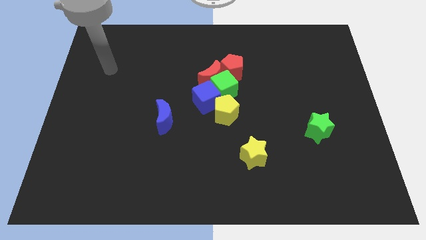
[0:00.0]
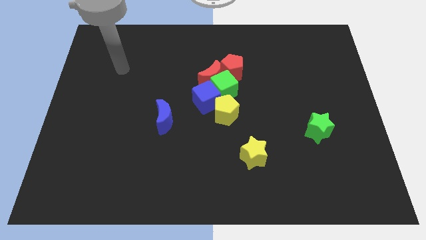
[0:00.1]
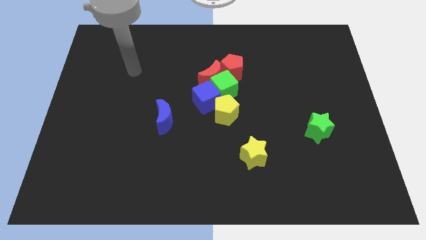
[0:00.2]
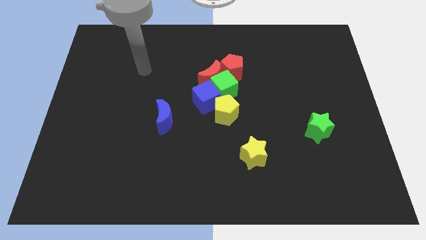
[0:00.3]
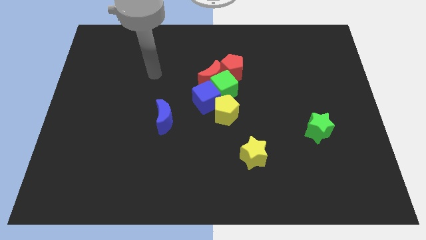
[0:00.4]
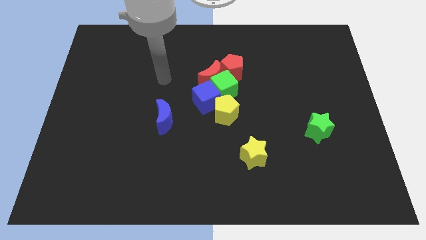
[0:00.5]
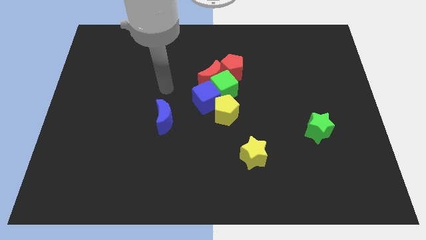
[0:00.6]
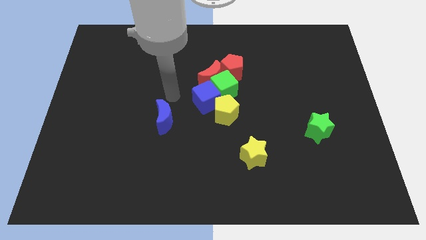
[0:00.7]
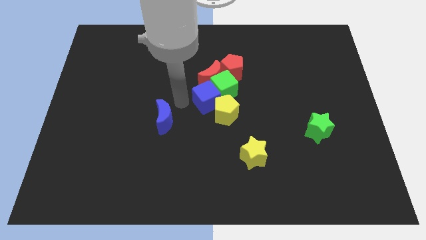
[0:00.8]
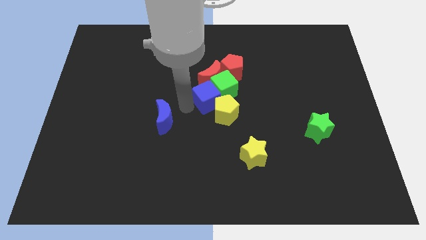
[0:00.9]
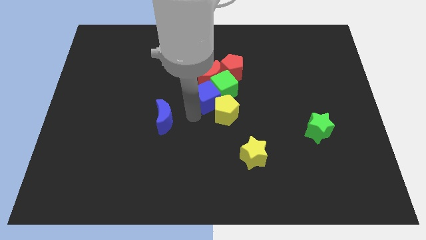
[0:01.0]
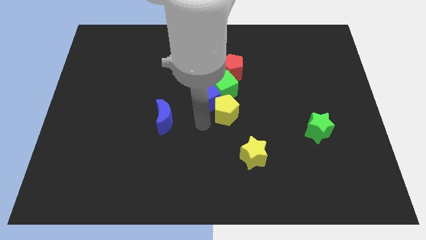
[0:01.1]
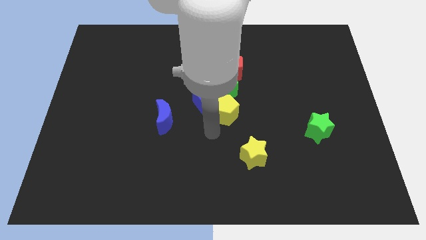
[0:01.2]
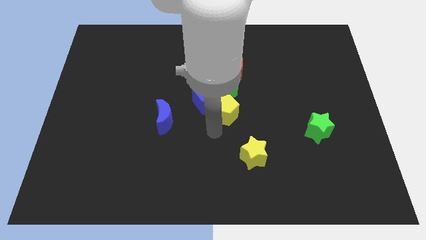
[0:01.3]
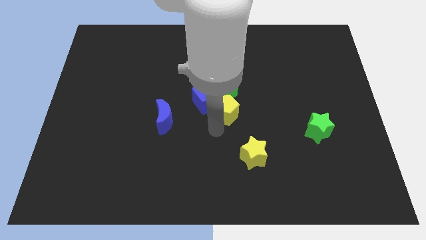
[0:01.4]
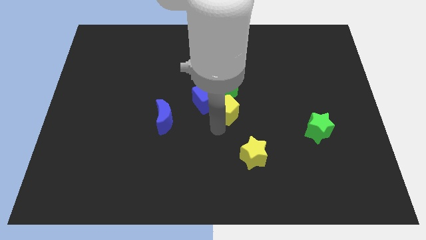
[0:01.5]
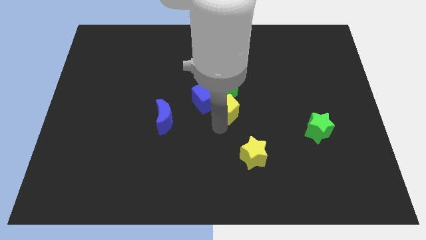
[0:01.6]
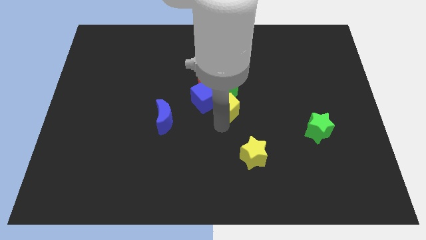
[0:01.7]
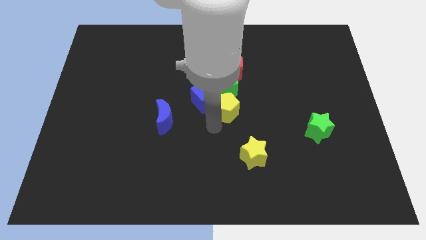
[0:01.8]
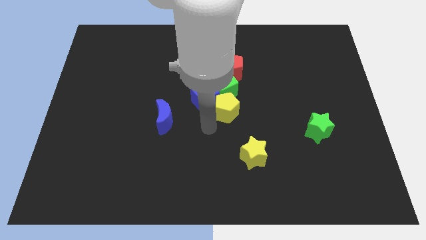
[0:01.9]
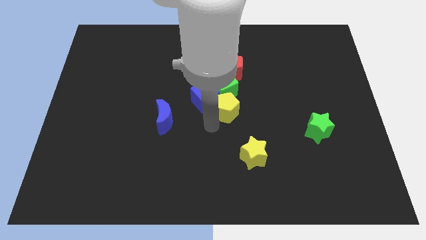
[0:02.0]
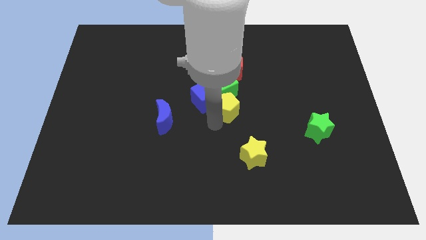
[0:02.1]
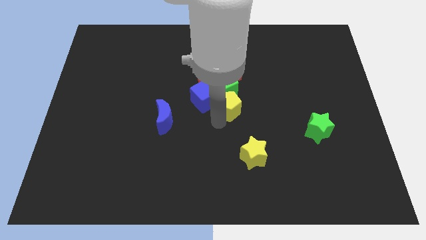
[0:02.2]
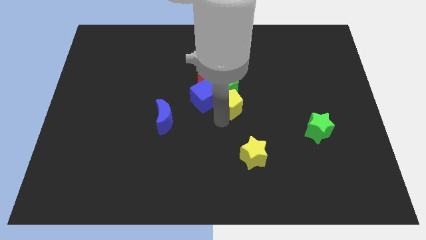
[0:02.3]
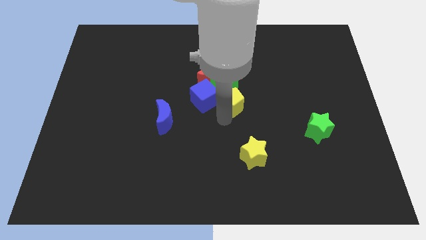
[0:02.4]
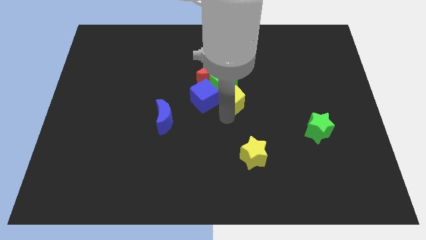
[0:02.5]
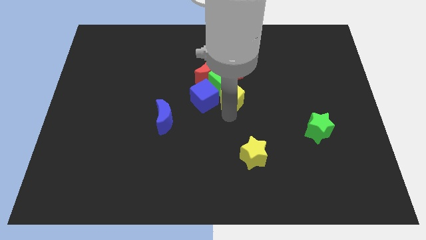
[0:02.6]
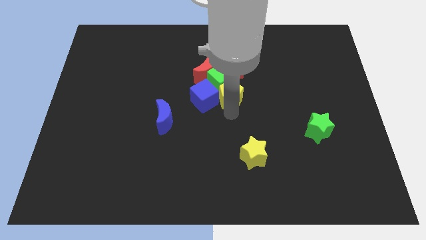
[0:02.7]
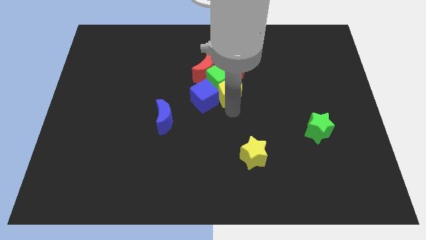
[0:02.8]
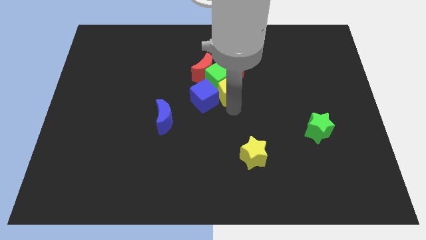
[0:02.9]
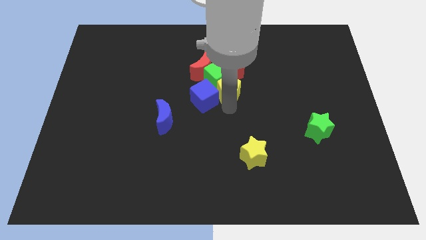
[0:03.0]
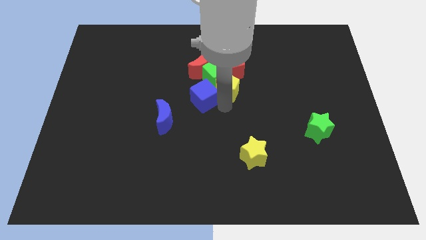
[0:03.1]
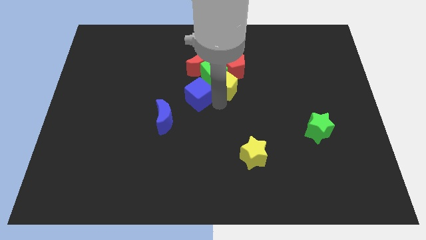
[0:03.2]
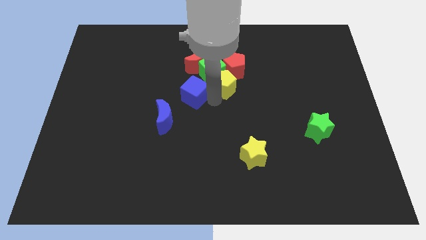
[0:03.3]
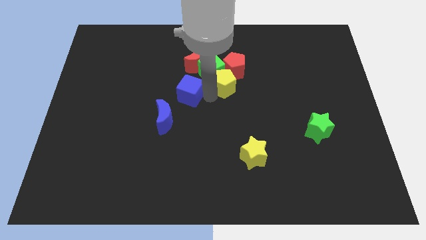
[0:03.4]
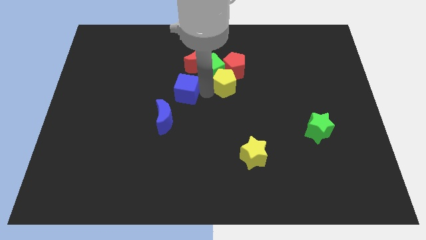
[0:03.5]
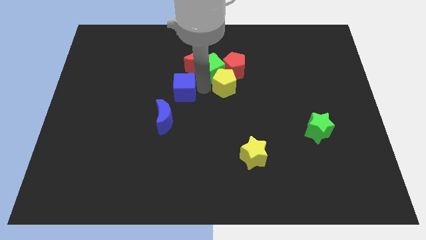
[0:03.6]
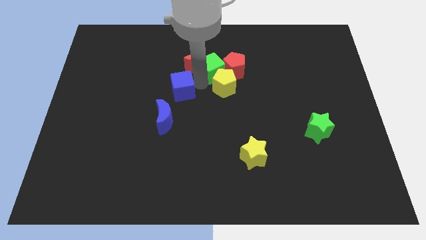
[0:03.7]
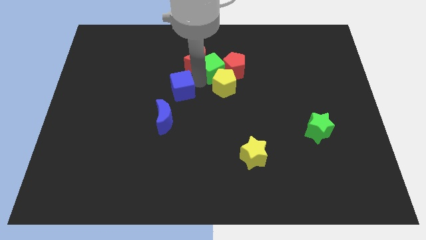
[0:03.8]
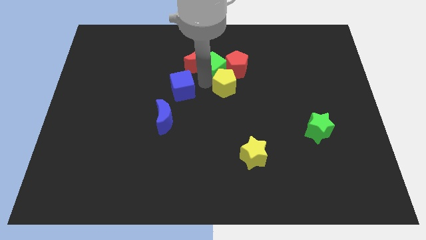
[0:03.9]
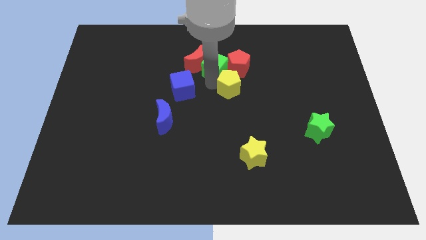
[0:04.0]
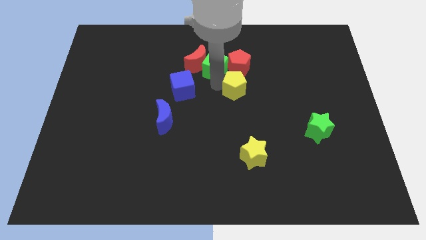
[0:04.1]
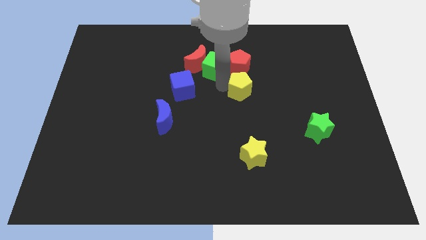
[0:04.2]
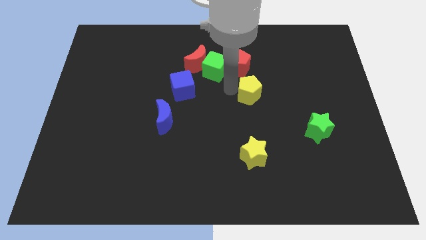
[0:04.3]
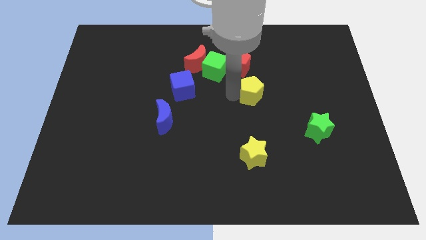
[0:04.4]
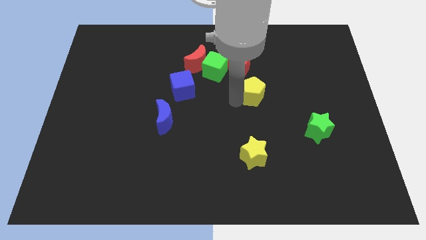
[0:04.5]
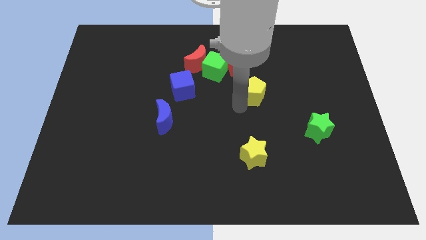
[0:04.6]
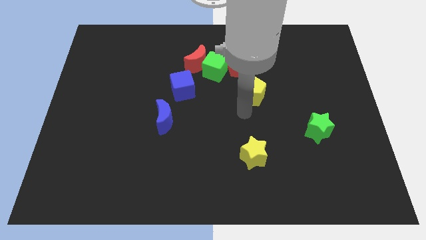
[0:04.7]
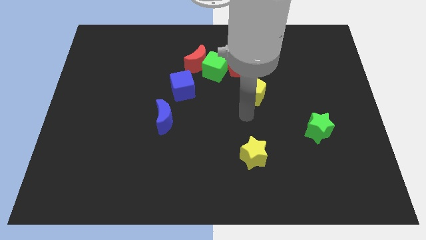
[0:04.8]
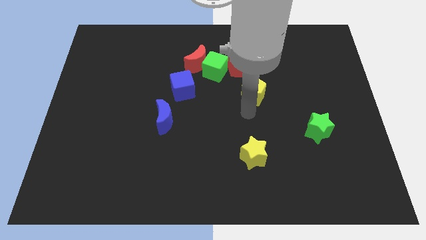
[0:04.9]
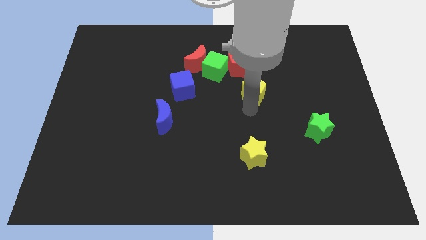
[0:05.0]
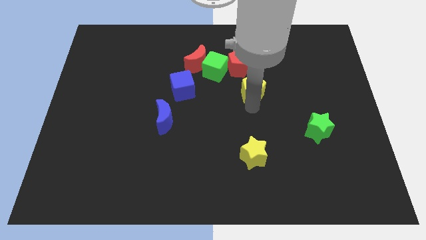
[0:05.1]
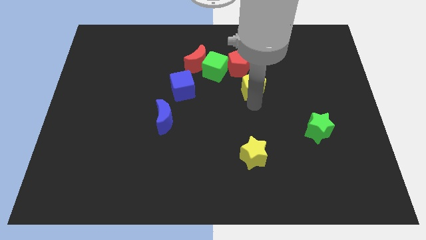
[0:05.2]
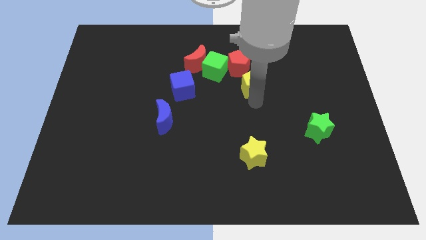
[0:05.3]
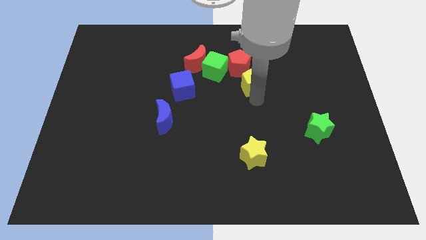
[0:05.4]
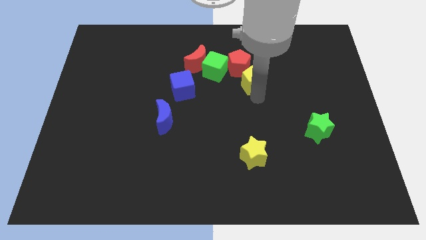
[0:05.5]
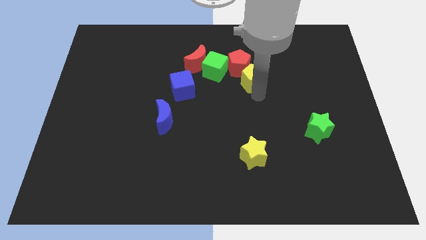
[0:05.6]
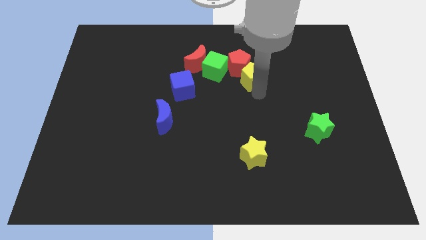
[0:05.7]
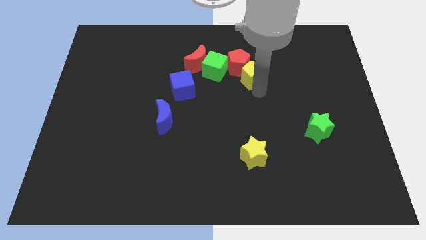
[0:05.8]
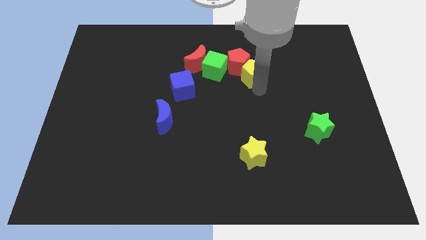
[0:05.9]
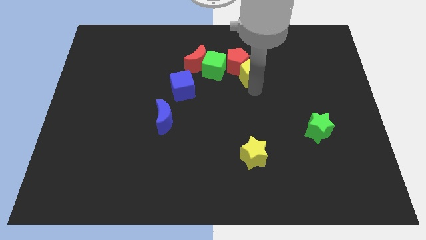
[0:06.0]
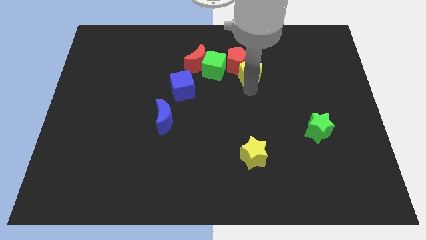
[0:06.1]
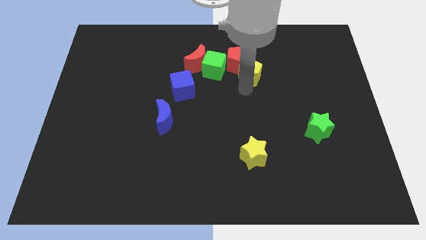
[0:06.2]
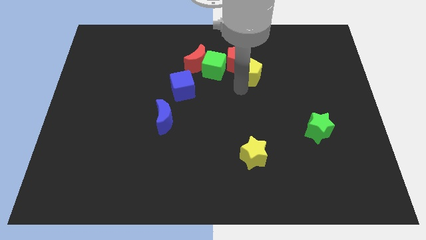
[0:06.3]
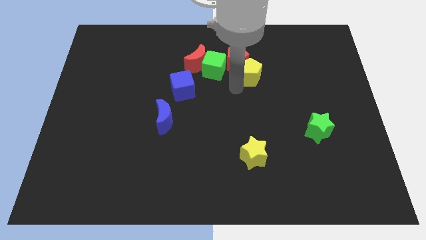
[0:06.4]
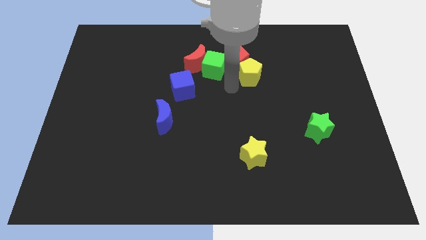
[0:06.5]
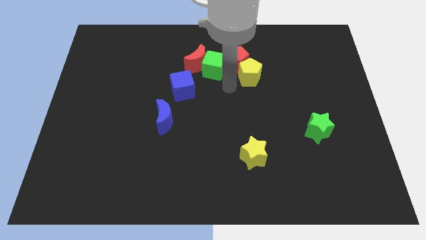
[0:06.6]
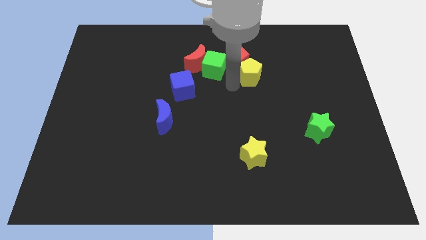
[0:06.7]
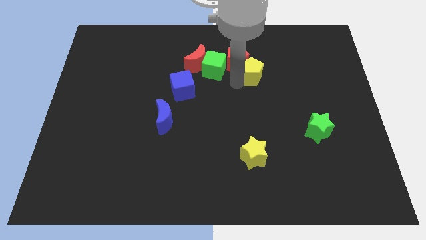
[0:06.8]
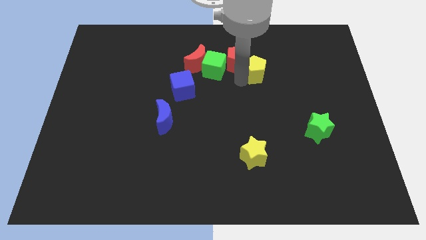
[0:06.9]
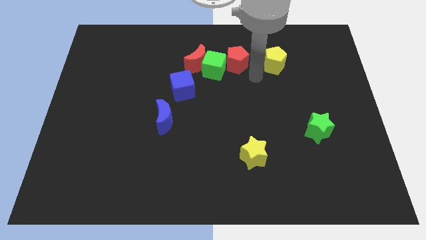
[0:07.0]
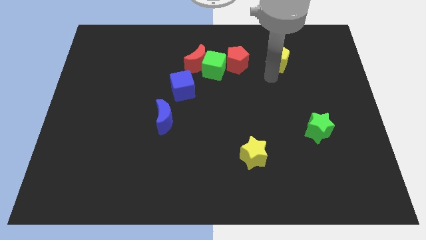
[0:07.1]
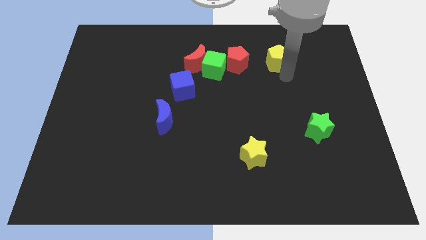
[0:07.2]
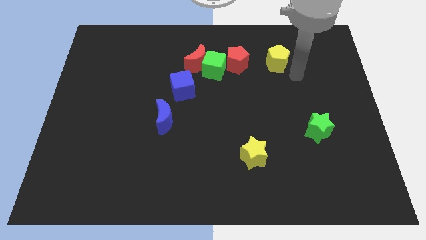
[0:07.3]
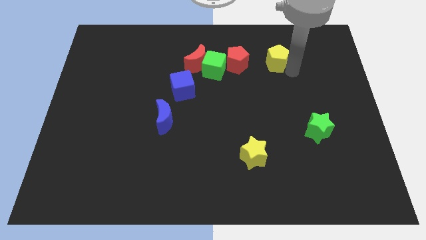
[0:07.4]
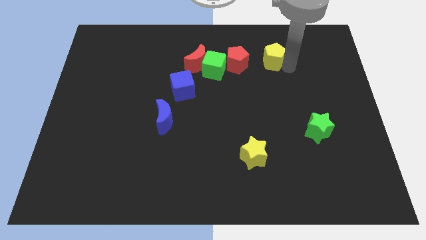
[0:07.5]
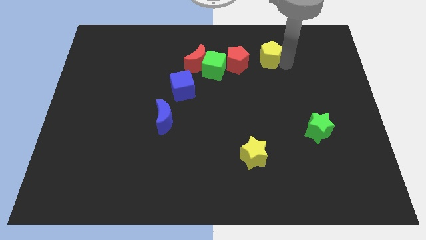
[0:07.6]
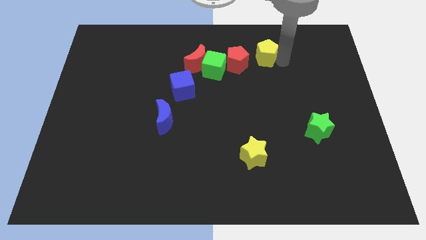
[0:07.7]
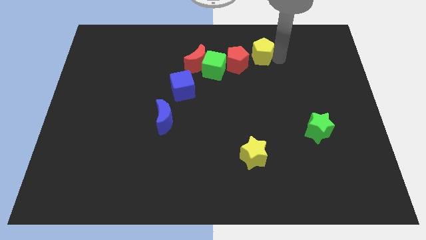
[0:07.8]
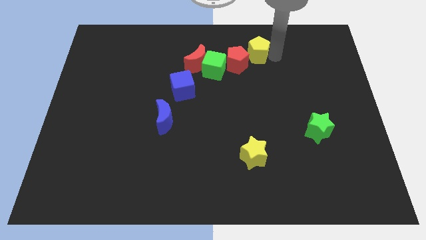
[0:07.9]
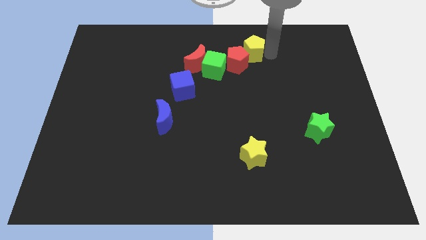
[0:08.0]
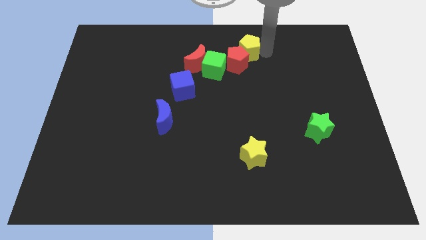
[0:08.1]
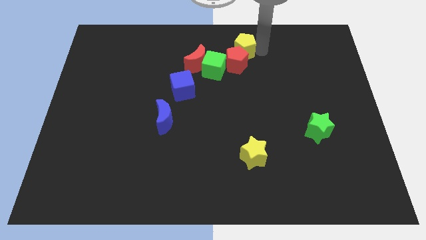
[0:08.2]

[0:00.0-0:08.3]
slide the yellow pentagon to the towards your base
